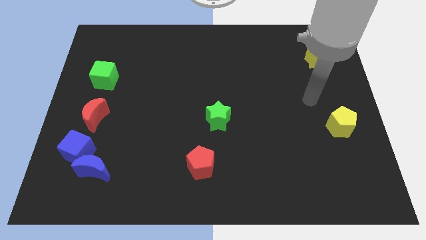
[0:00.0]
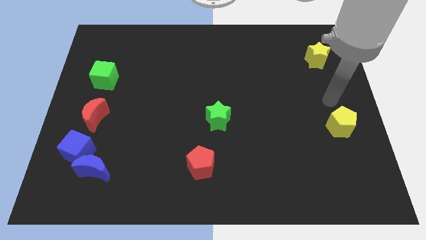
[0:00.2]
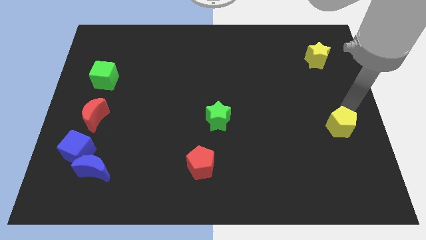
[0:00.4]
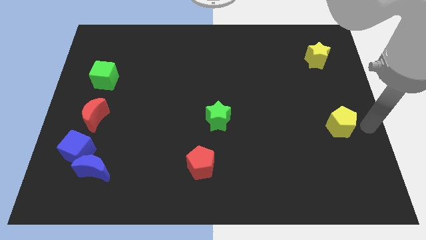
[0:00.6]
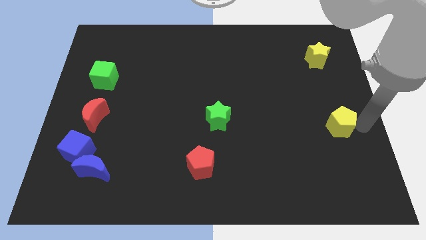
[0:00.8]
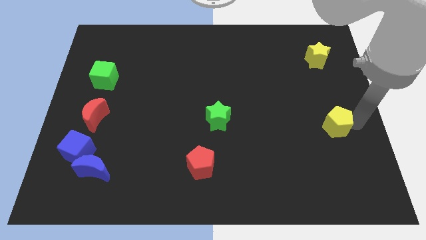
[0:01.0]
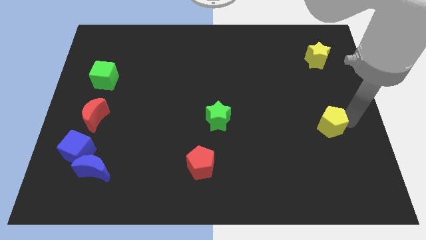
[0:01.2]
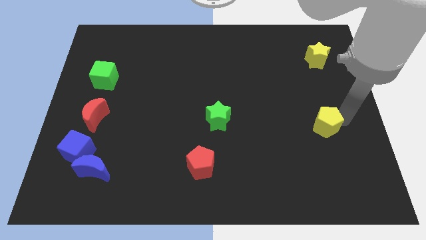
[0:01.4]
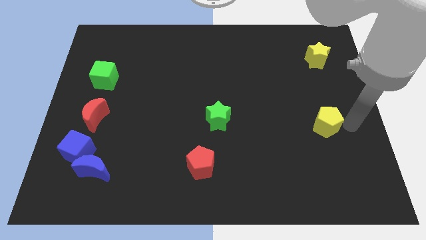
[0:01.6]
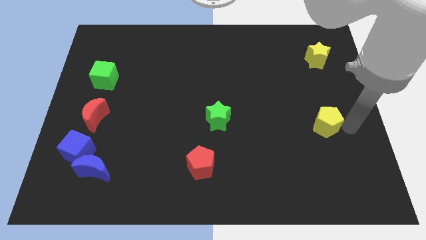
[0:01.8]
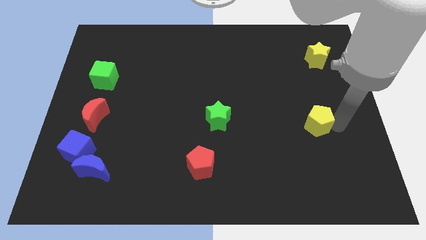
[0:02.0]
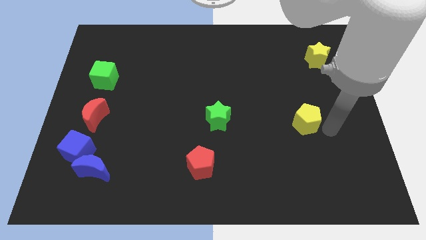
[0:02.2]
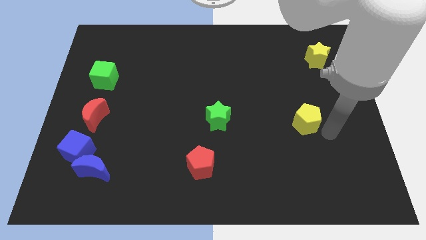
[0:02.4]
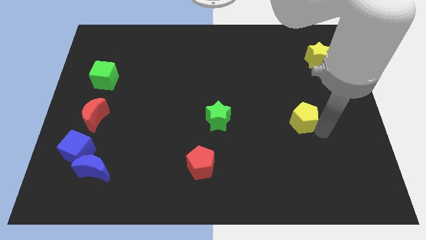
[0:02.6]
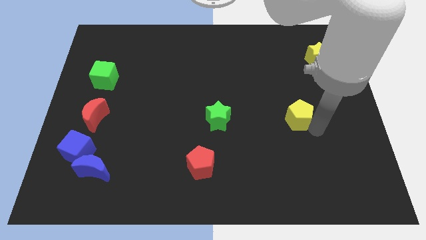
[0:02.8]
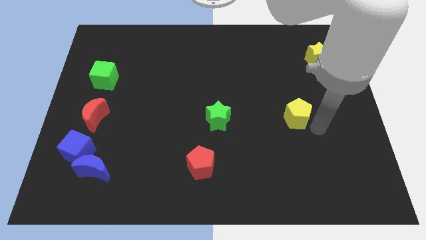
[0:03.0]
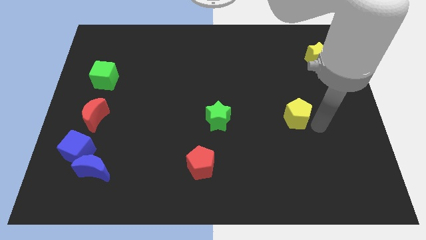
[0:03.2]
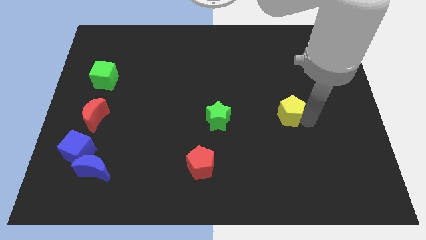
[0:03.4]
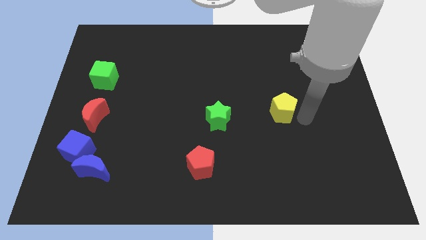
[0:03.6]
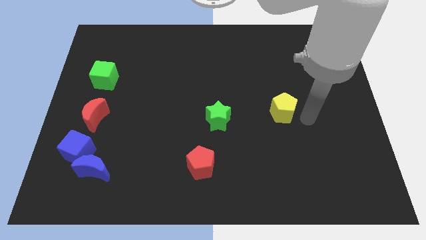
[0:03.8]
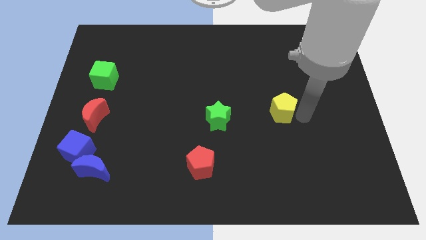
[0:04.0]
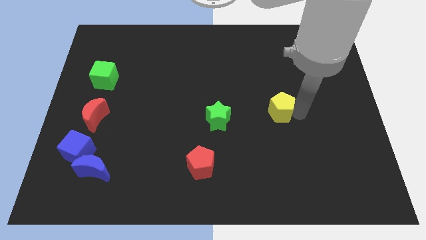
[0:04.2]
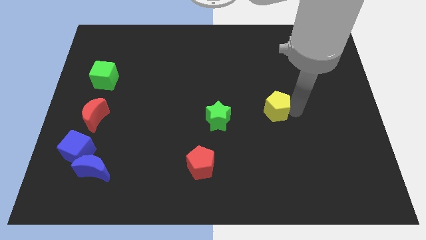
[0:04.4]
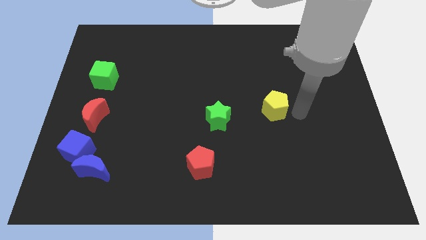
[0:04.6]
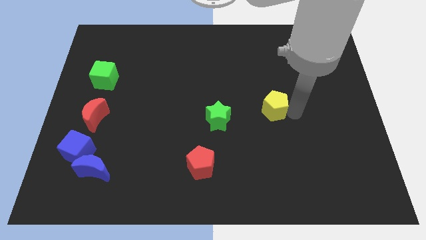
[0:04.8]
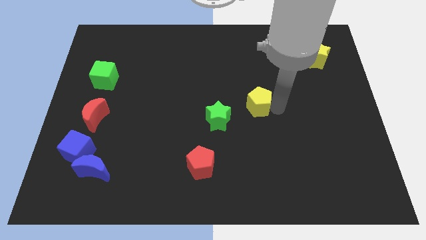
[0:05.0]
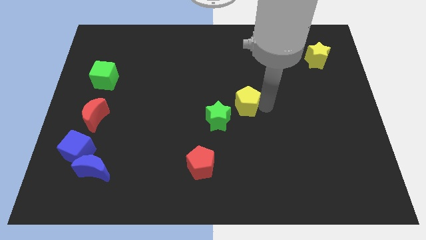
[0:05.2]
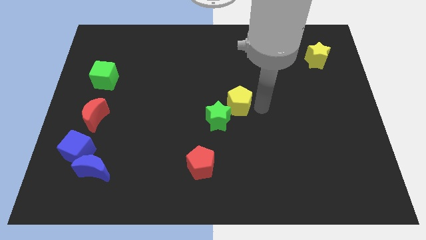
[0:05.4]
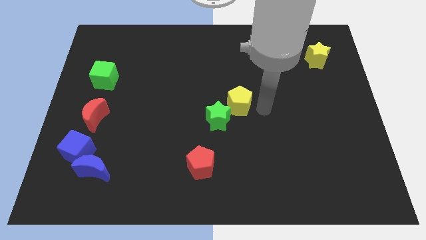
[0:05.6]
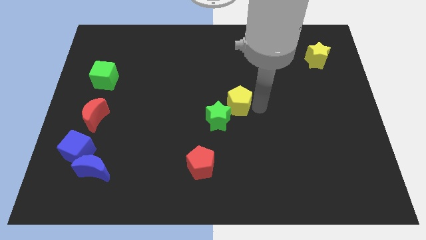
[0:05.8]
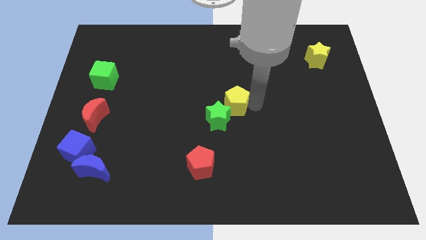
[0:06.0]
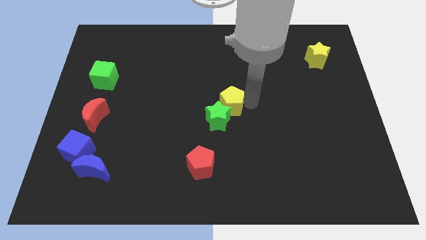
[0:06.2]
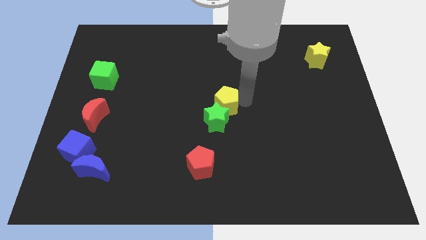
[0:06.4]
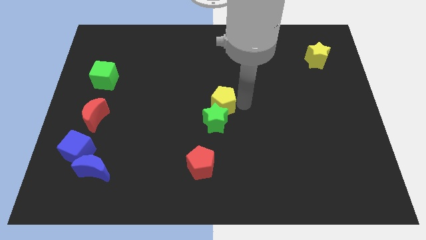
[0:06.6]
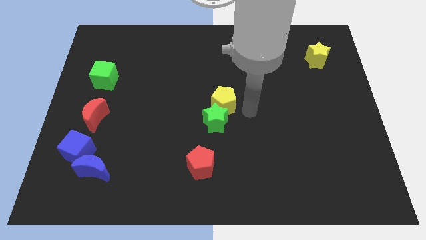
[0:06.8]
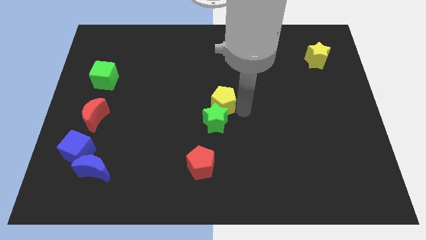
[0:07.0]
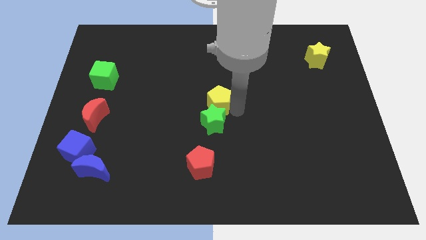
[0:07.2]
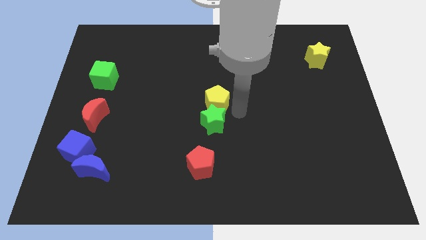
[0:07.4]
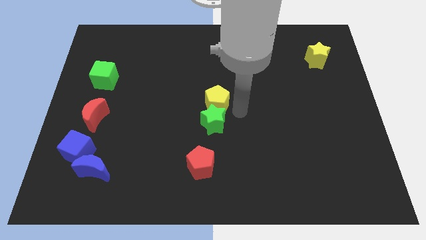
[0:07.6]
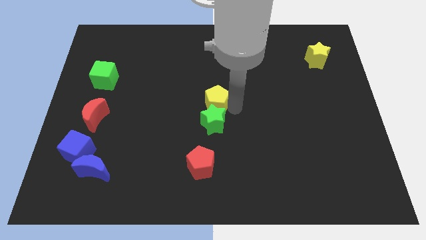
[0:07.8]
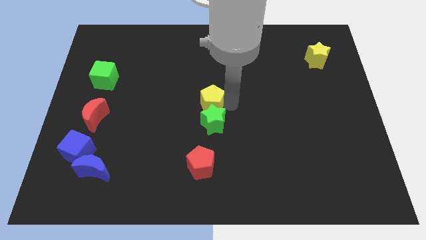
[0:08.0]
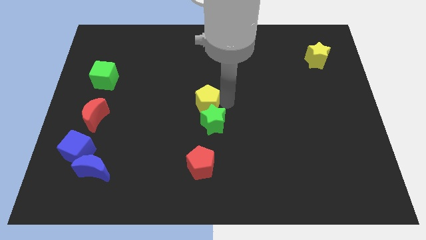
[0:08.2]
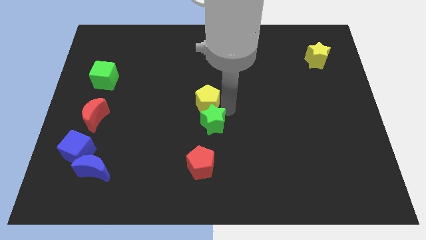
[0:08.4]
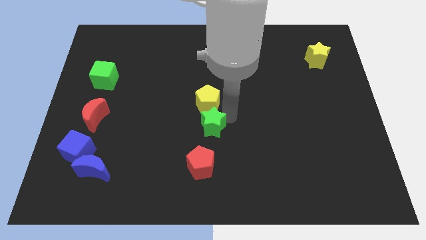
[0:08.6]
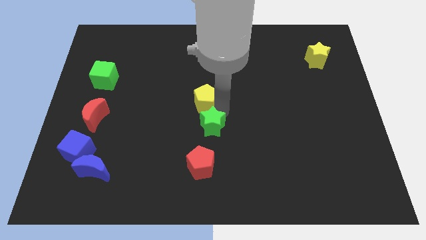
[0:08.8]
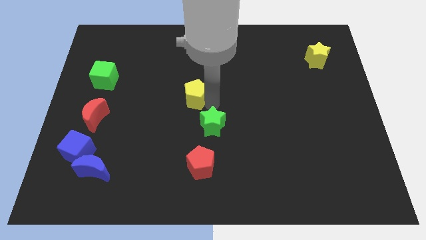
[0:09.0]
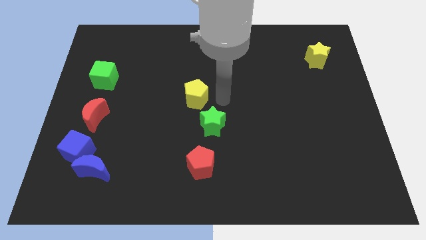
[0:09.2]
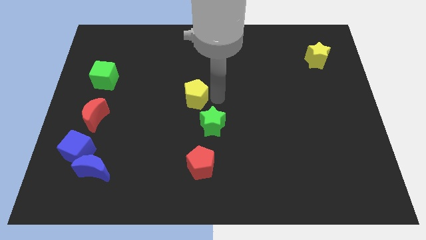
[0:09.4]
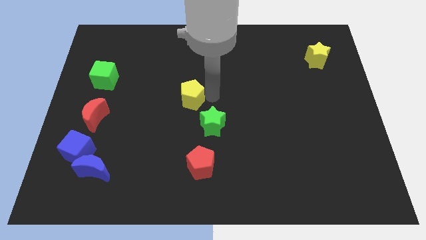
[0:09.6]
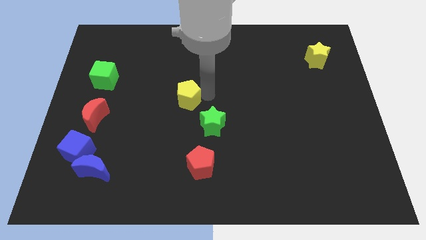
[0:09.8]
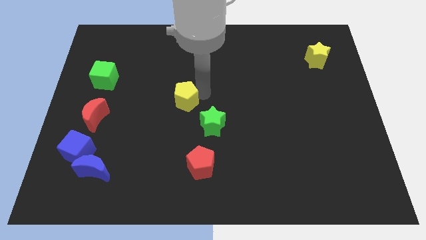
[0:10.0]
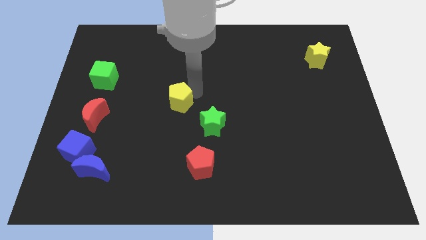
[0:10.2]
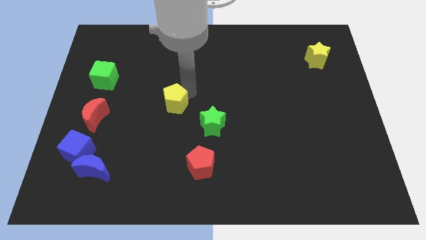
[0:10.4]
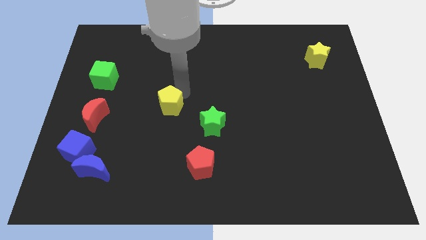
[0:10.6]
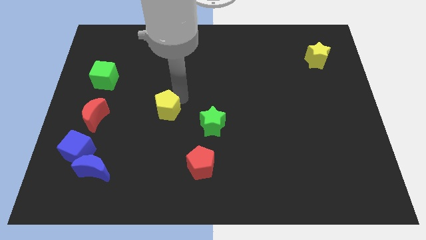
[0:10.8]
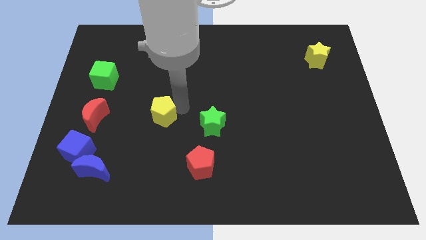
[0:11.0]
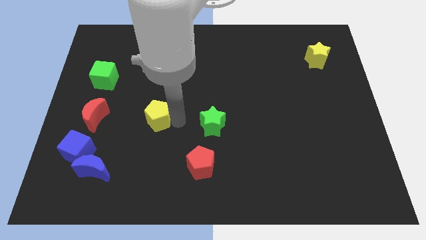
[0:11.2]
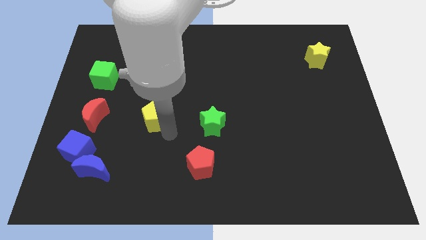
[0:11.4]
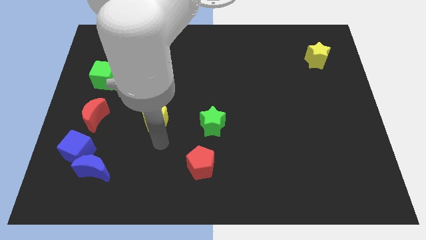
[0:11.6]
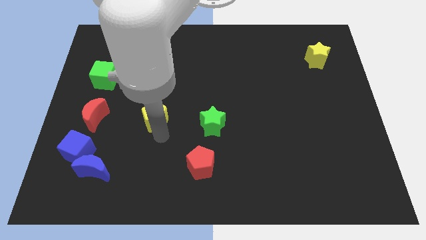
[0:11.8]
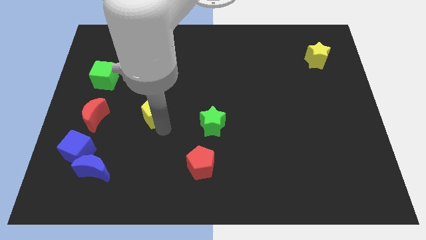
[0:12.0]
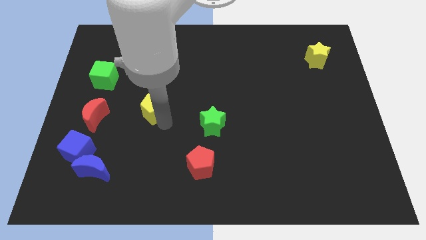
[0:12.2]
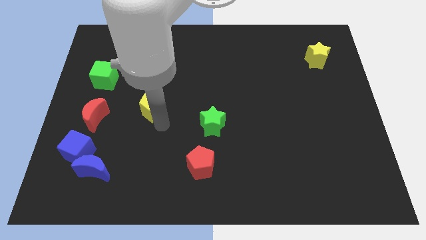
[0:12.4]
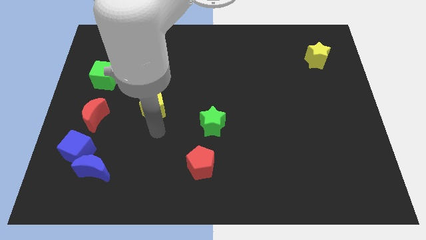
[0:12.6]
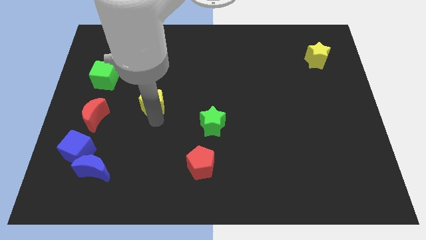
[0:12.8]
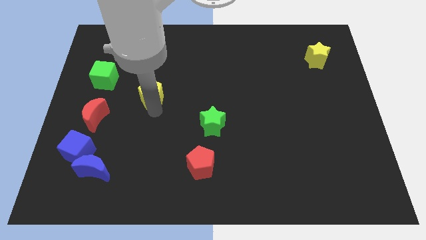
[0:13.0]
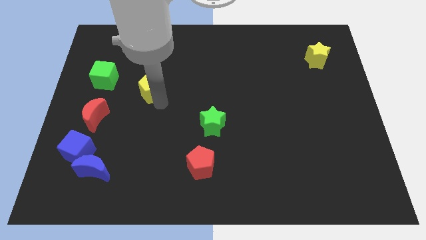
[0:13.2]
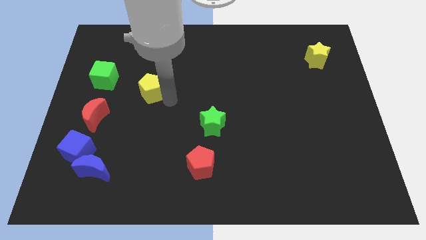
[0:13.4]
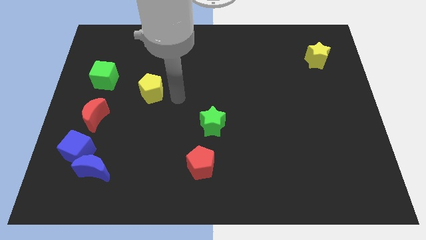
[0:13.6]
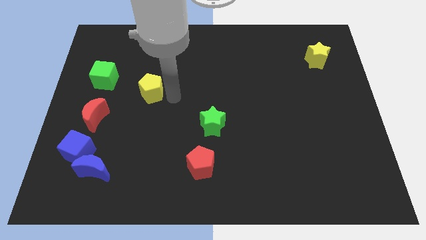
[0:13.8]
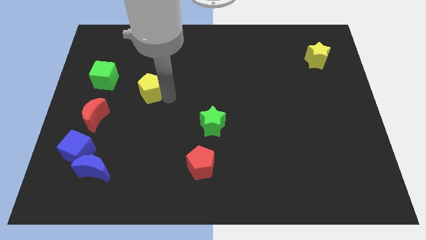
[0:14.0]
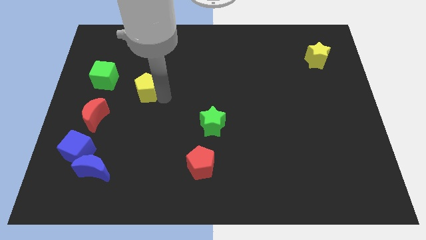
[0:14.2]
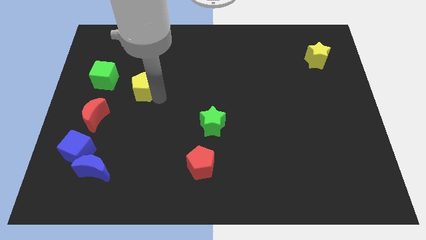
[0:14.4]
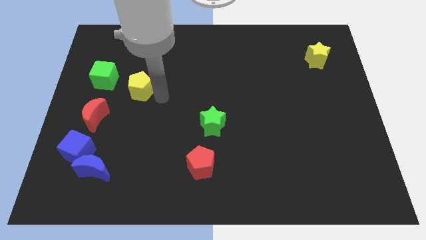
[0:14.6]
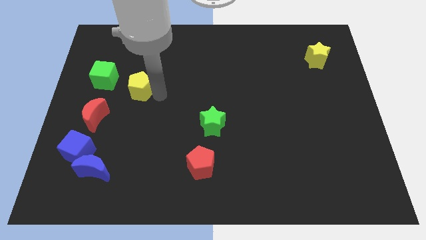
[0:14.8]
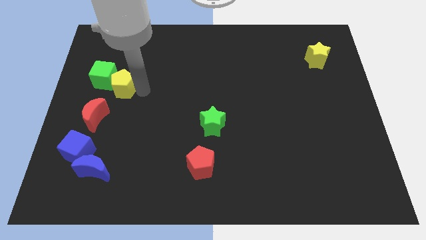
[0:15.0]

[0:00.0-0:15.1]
push the yellow pentagon to the green cube
